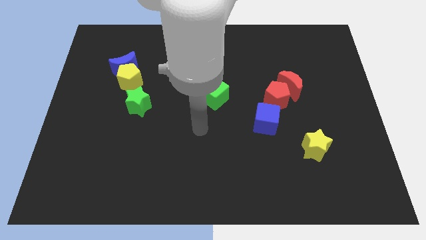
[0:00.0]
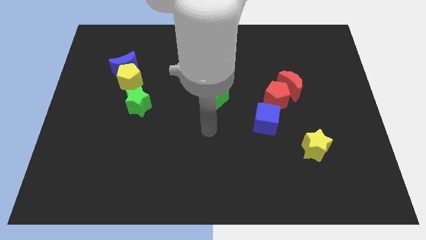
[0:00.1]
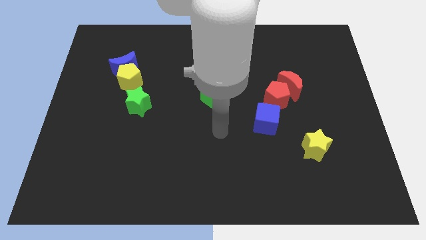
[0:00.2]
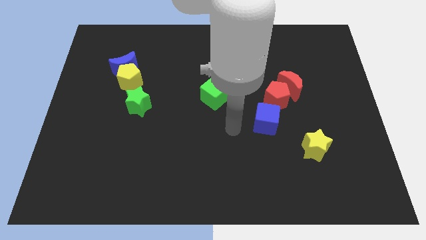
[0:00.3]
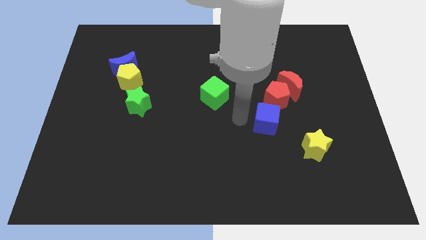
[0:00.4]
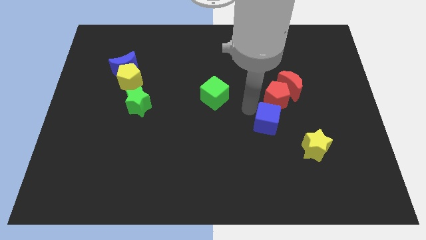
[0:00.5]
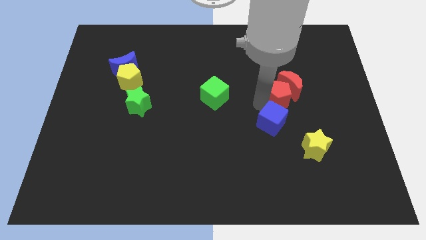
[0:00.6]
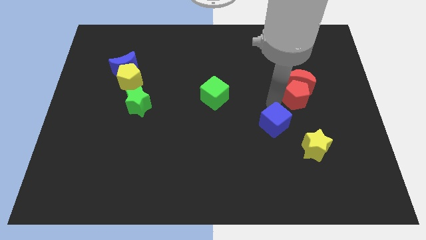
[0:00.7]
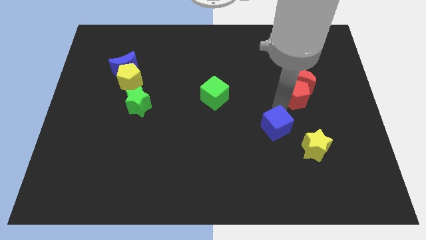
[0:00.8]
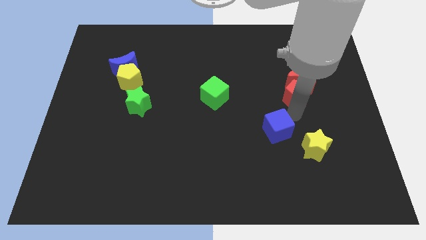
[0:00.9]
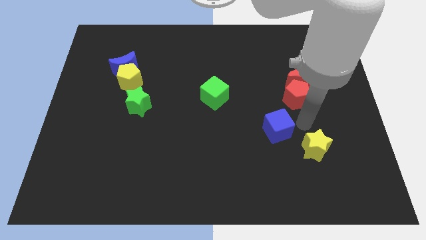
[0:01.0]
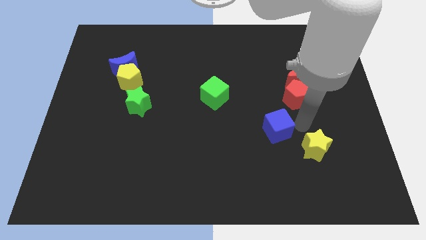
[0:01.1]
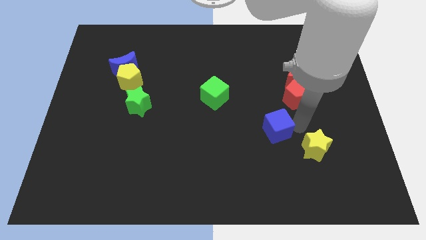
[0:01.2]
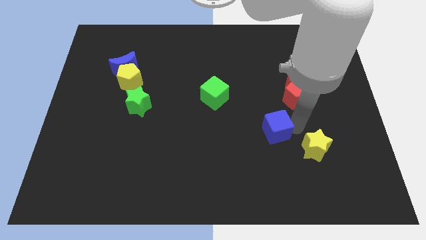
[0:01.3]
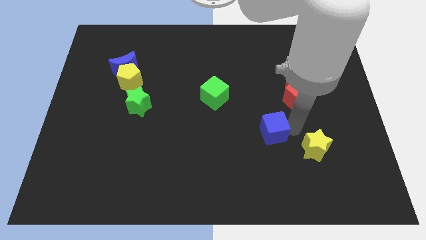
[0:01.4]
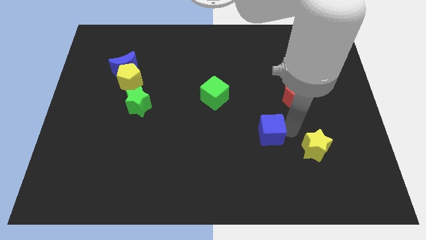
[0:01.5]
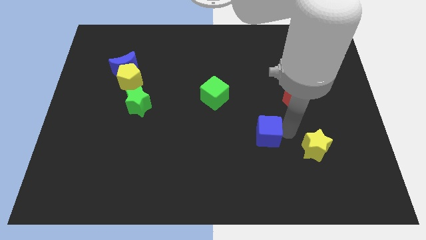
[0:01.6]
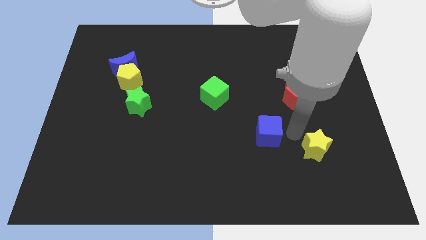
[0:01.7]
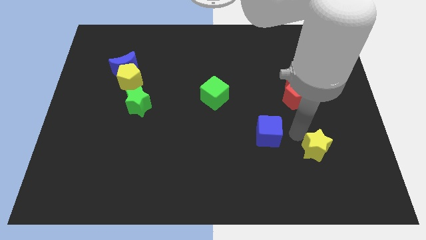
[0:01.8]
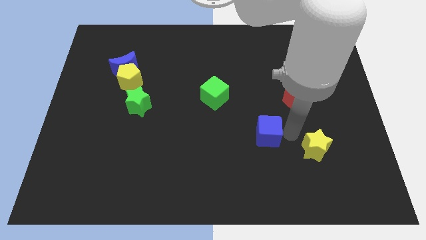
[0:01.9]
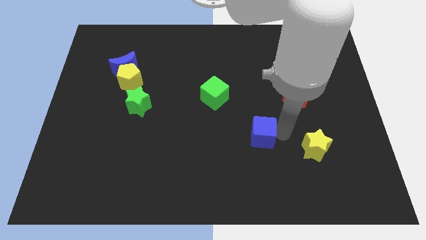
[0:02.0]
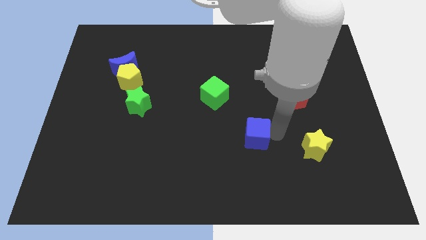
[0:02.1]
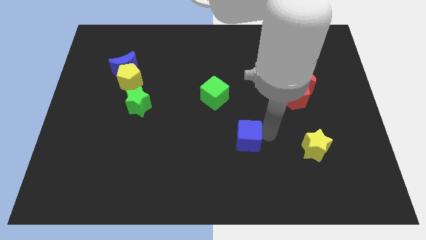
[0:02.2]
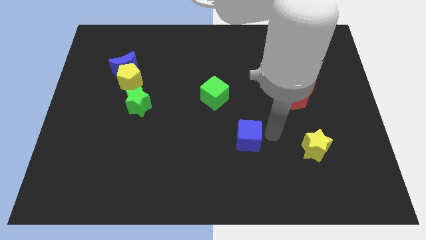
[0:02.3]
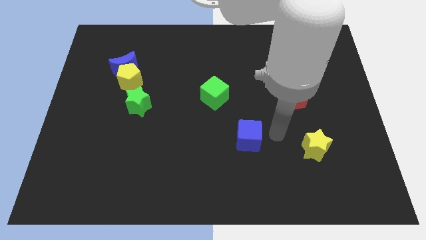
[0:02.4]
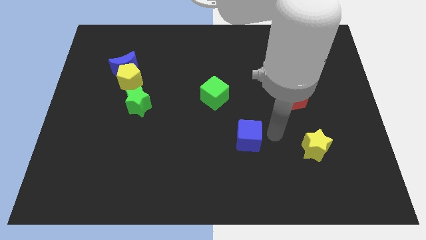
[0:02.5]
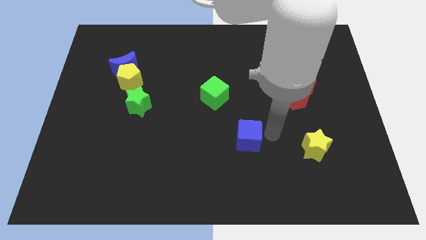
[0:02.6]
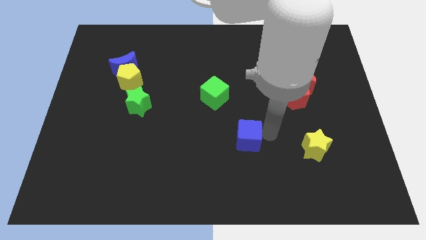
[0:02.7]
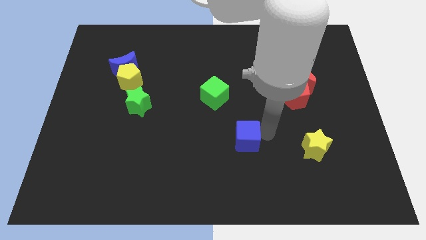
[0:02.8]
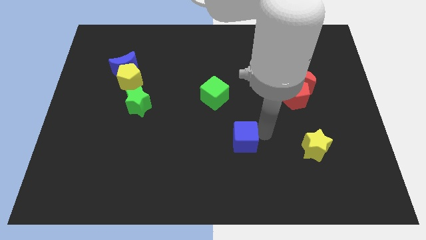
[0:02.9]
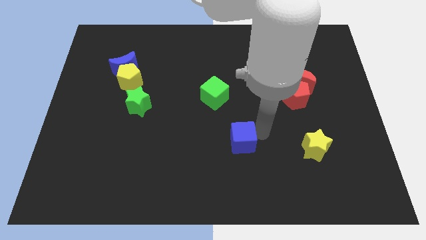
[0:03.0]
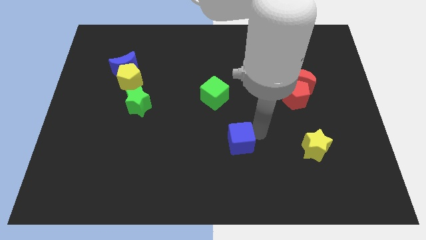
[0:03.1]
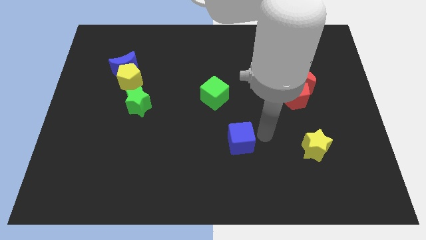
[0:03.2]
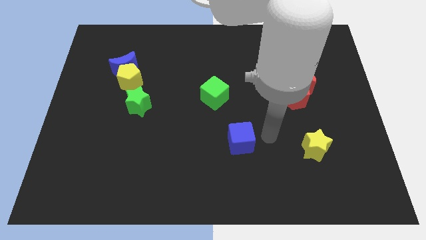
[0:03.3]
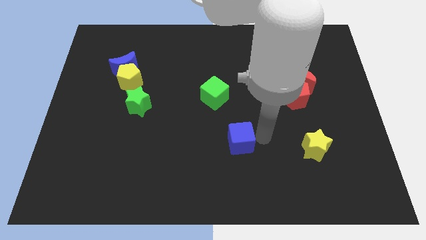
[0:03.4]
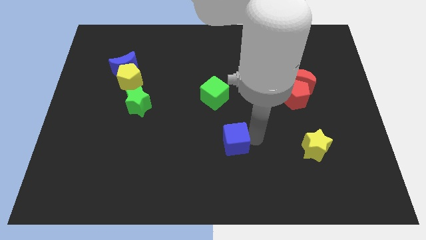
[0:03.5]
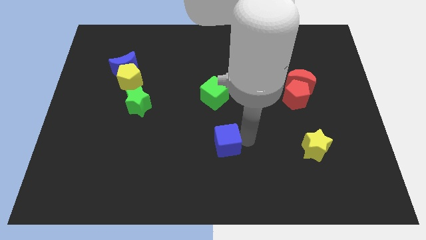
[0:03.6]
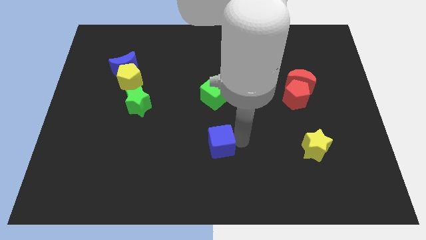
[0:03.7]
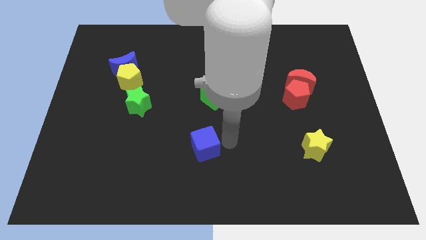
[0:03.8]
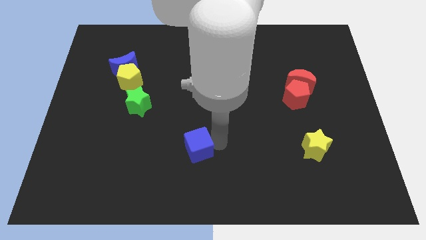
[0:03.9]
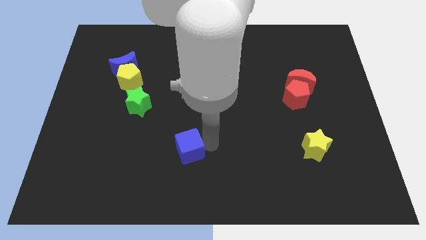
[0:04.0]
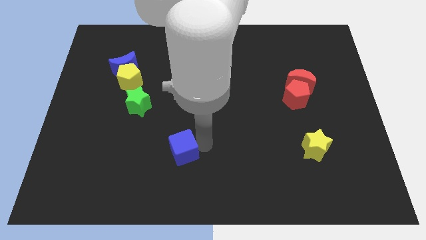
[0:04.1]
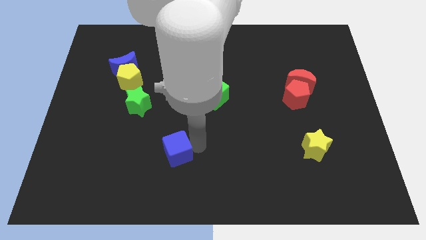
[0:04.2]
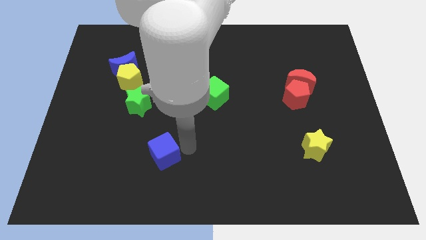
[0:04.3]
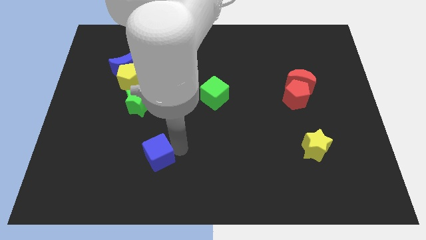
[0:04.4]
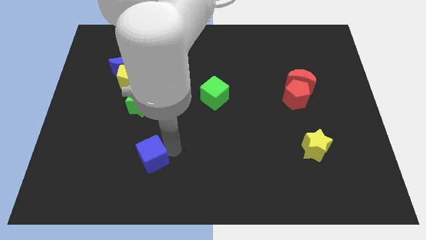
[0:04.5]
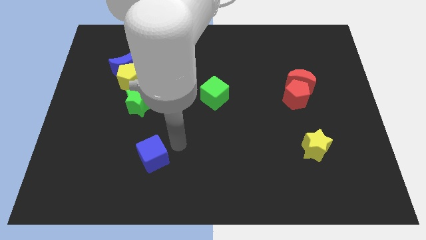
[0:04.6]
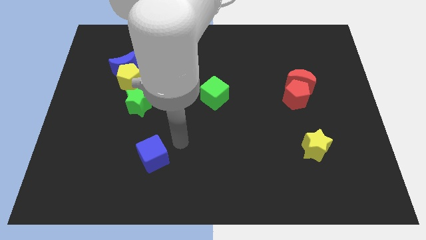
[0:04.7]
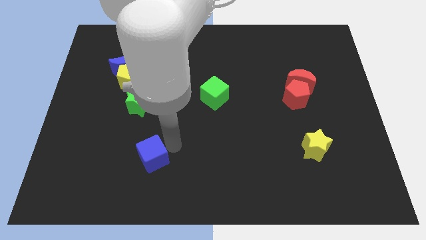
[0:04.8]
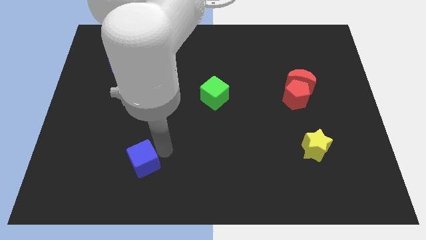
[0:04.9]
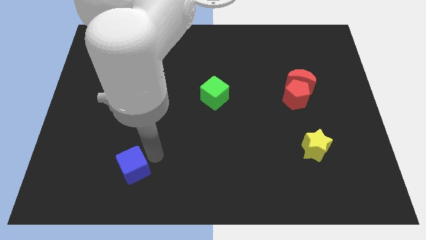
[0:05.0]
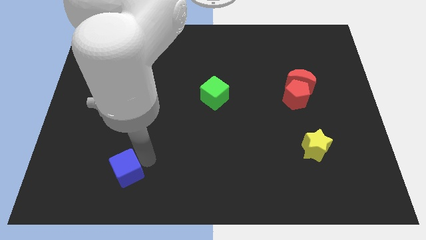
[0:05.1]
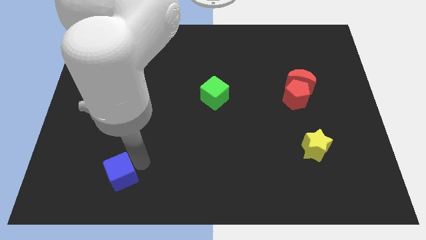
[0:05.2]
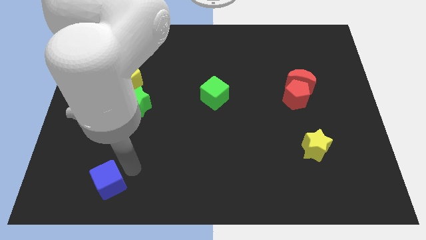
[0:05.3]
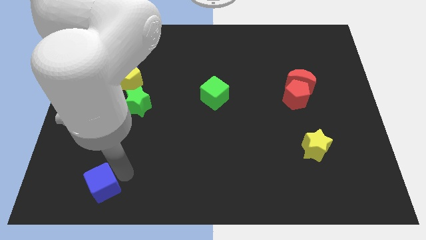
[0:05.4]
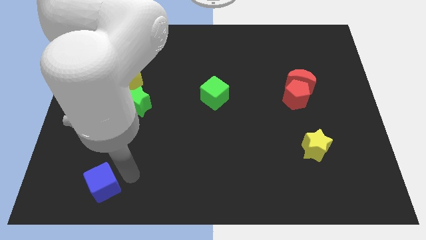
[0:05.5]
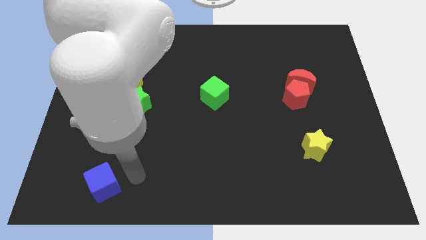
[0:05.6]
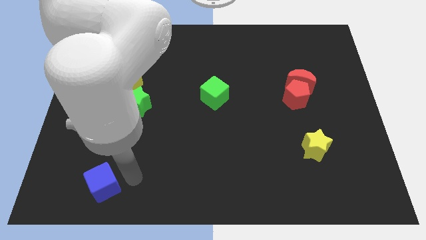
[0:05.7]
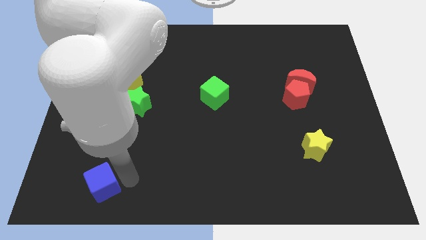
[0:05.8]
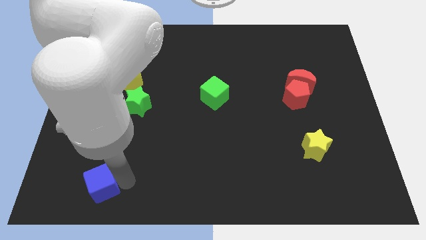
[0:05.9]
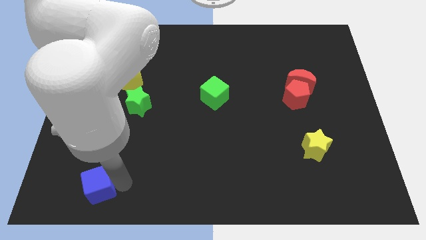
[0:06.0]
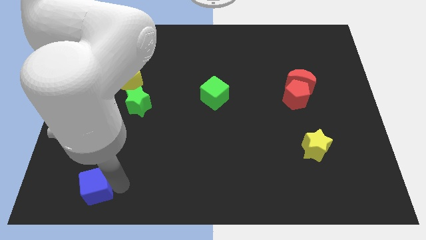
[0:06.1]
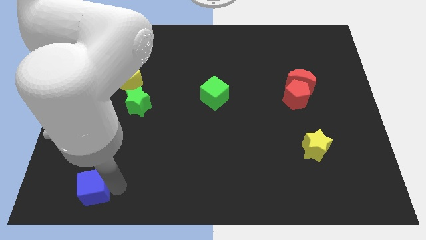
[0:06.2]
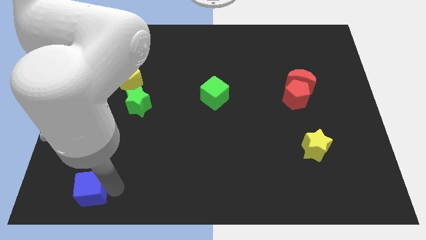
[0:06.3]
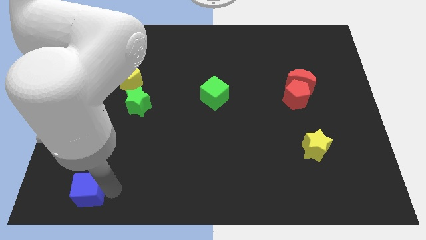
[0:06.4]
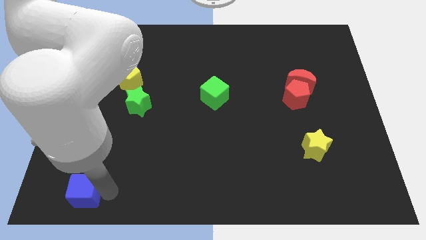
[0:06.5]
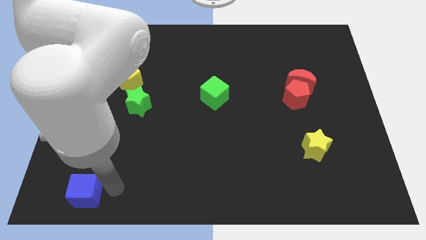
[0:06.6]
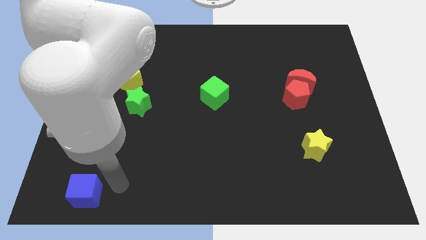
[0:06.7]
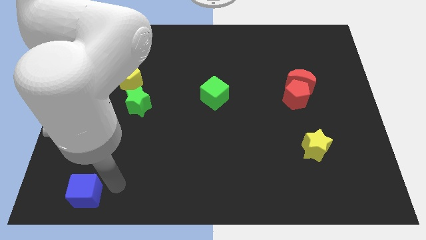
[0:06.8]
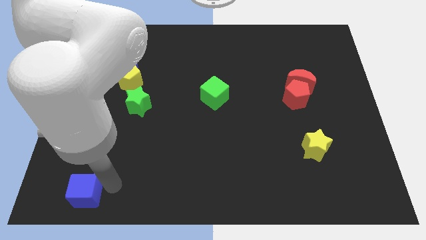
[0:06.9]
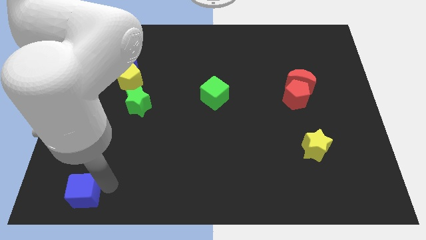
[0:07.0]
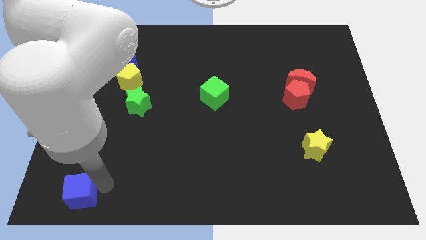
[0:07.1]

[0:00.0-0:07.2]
slide the blue cube to the bottom left
